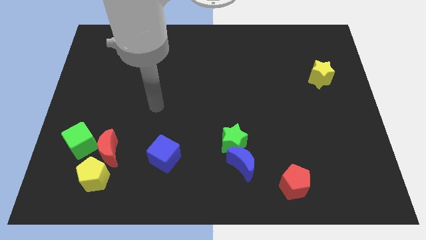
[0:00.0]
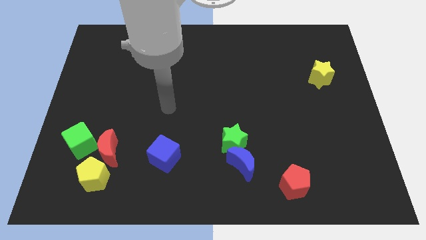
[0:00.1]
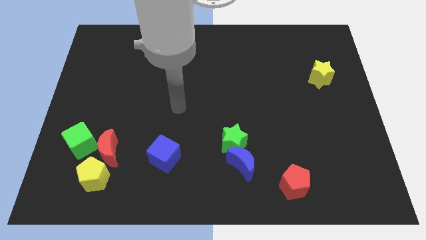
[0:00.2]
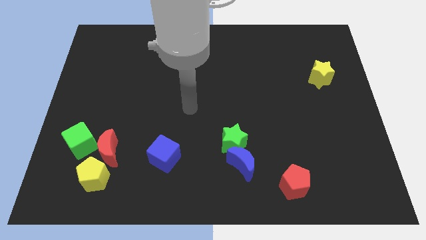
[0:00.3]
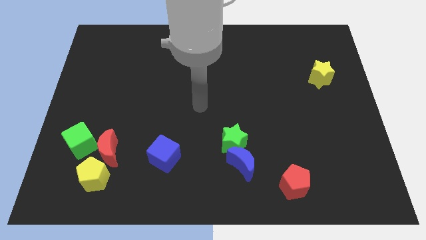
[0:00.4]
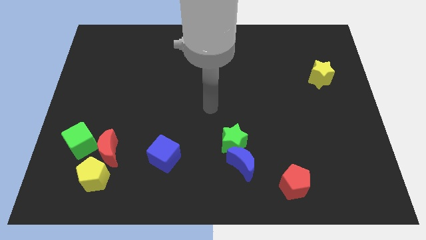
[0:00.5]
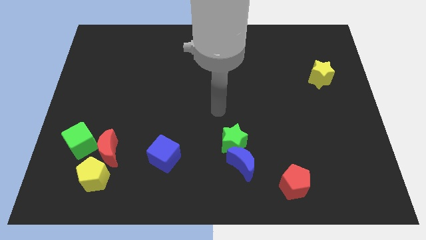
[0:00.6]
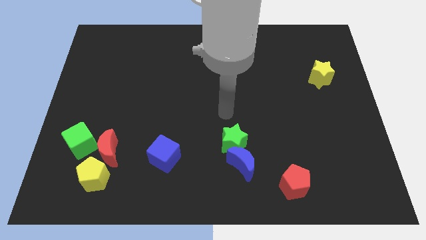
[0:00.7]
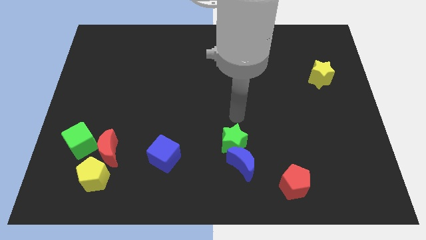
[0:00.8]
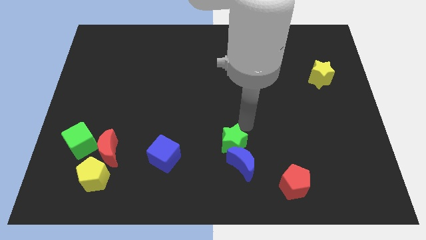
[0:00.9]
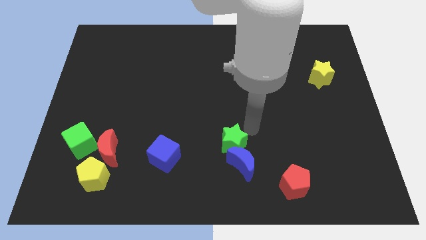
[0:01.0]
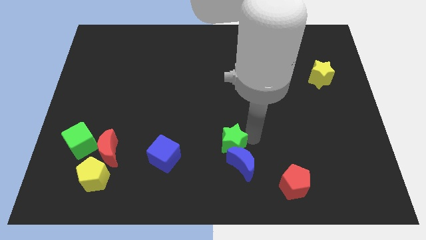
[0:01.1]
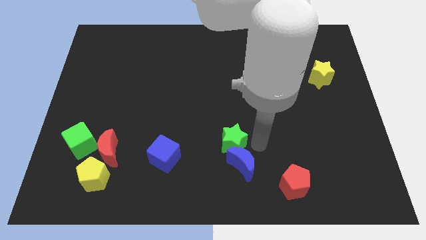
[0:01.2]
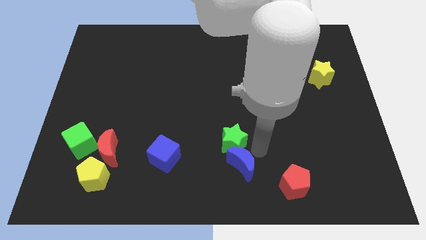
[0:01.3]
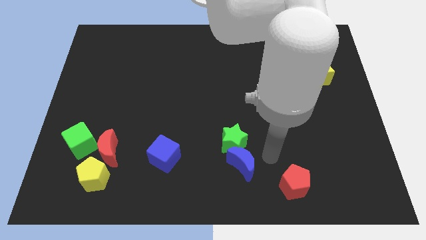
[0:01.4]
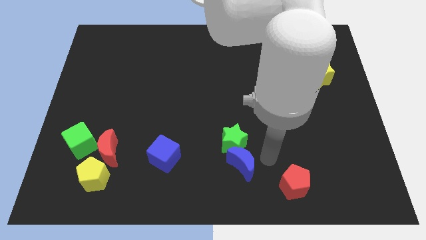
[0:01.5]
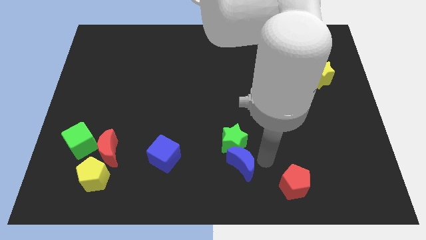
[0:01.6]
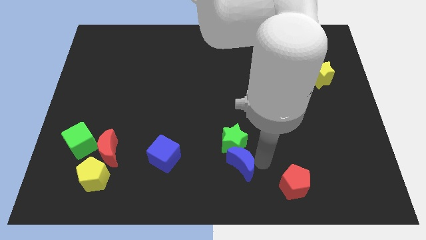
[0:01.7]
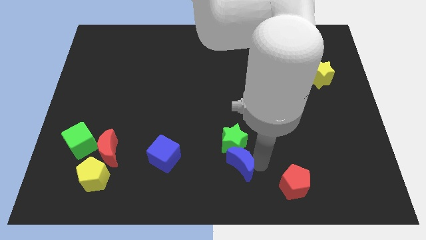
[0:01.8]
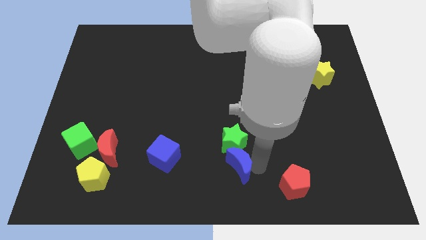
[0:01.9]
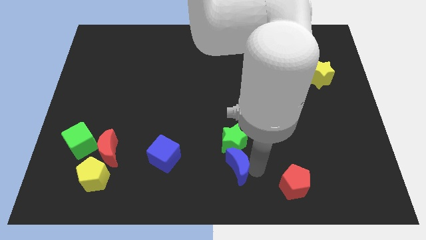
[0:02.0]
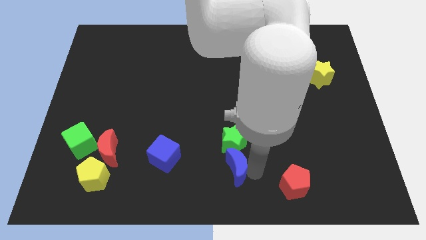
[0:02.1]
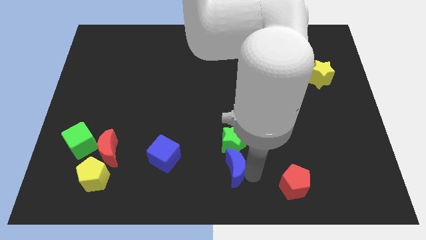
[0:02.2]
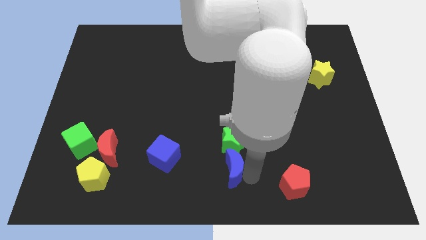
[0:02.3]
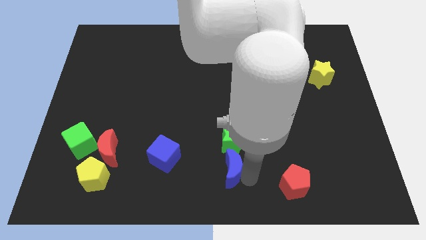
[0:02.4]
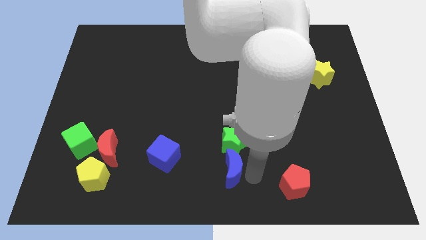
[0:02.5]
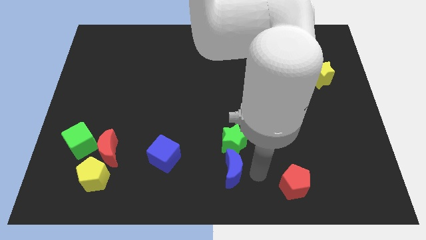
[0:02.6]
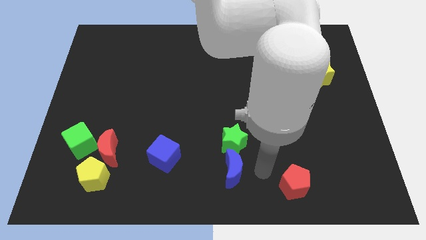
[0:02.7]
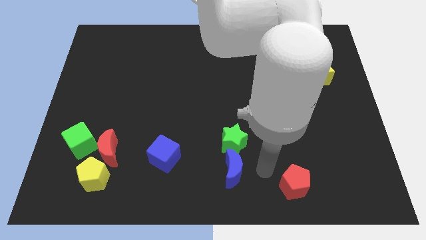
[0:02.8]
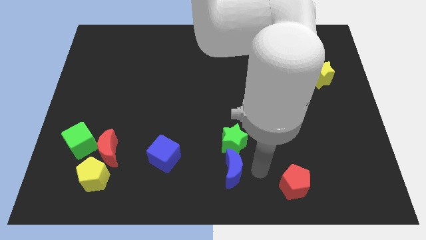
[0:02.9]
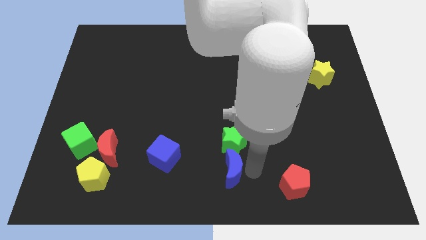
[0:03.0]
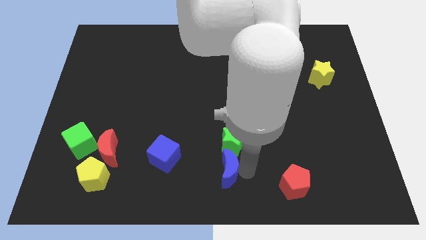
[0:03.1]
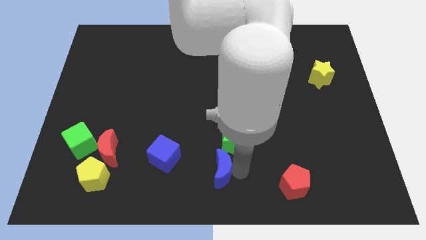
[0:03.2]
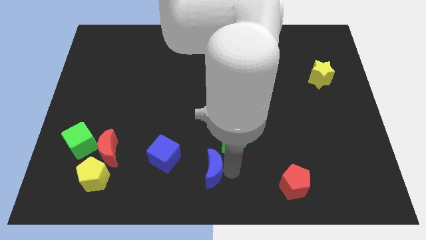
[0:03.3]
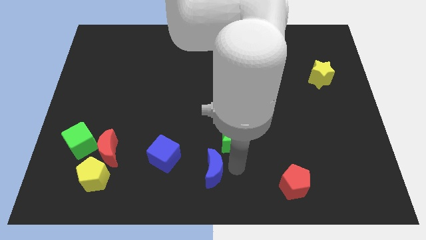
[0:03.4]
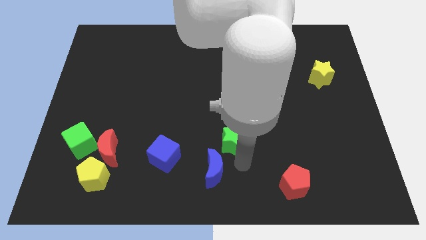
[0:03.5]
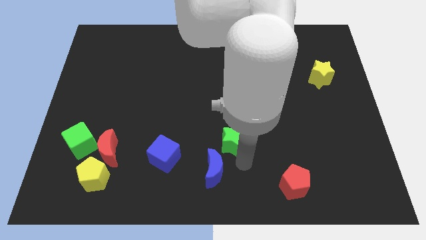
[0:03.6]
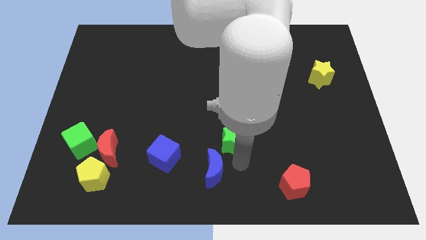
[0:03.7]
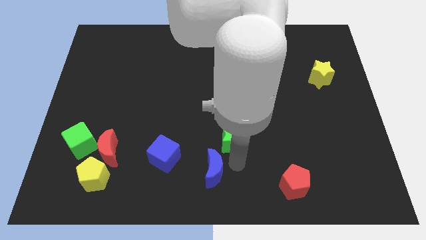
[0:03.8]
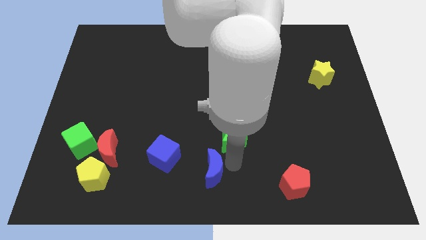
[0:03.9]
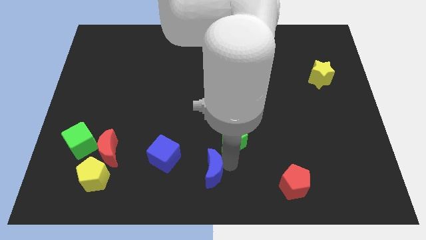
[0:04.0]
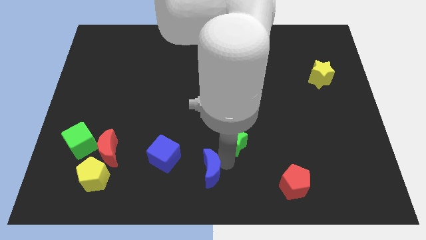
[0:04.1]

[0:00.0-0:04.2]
slide the blue moon to the bottom right side of the blue cube

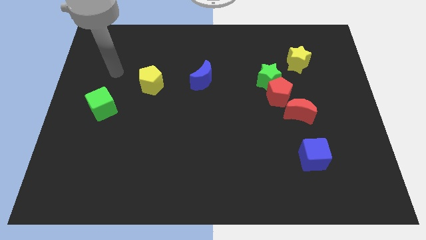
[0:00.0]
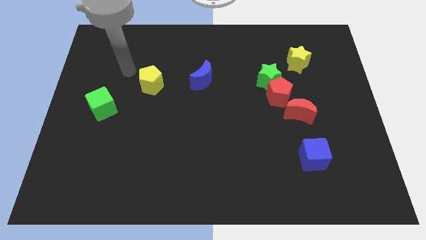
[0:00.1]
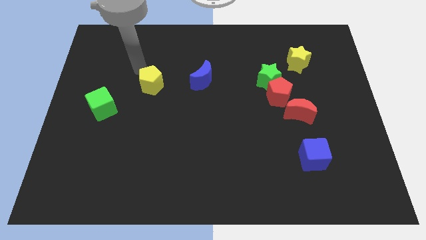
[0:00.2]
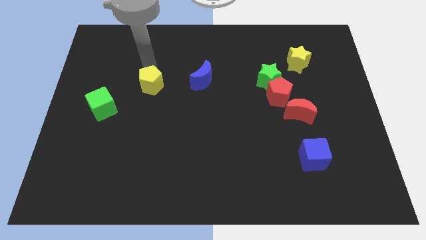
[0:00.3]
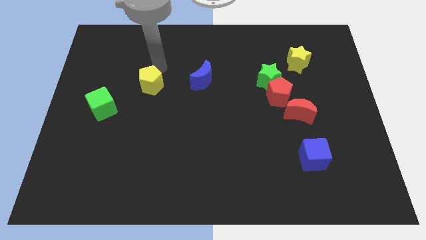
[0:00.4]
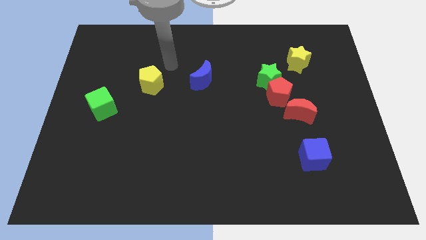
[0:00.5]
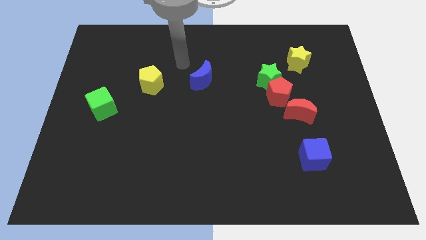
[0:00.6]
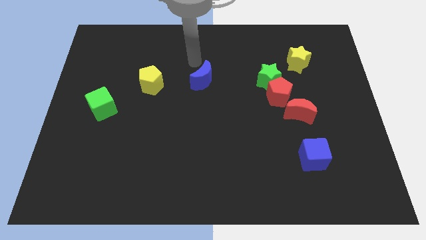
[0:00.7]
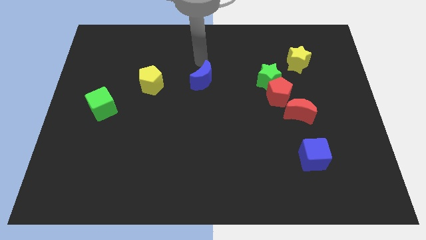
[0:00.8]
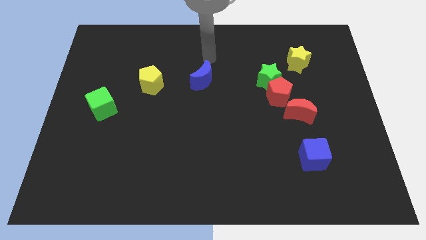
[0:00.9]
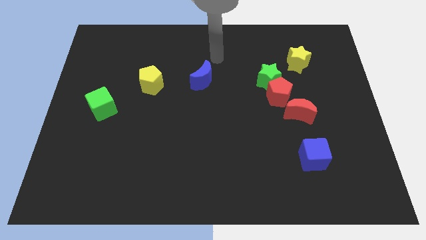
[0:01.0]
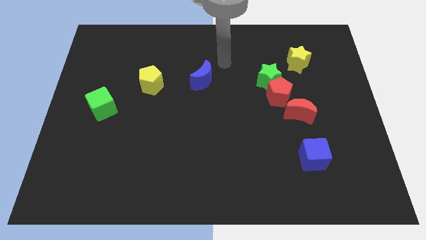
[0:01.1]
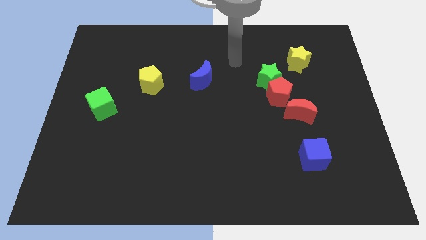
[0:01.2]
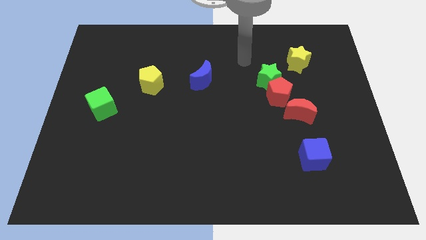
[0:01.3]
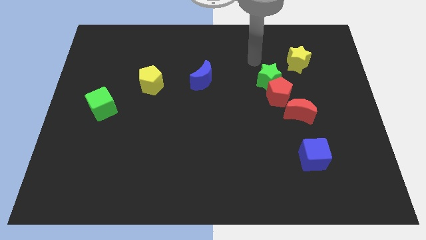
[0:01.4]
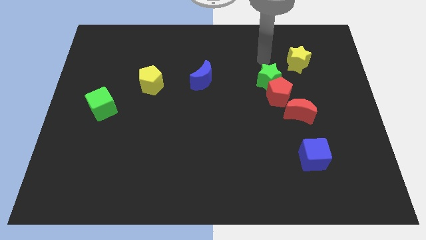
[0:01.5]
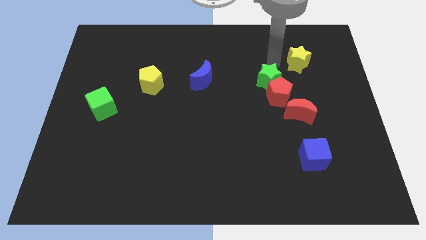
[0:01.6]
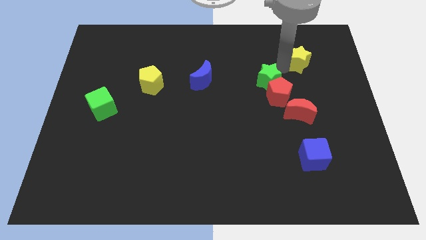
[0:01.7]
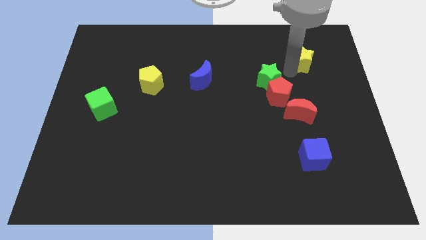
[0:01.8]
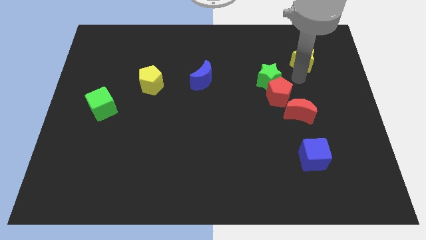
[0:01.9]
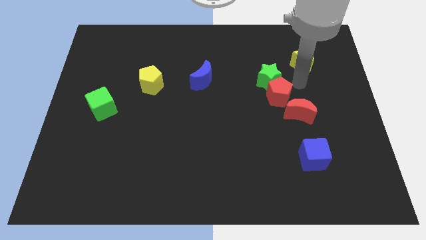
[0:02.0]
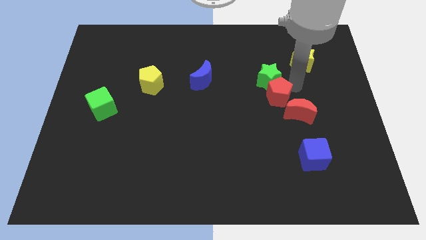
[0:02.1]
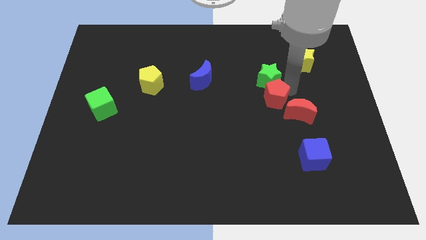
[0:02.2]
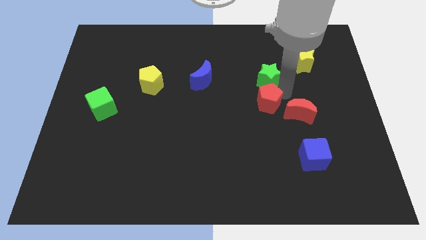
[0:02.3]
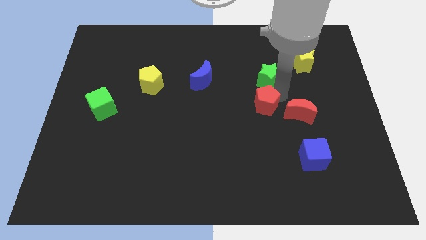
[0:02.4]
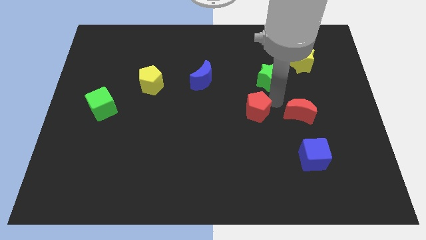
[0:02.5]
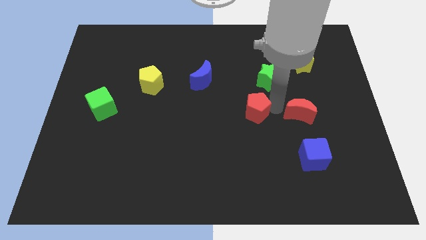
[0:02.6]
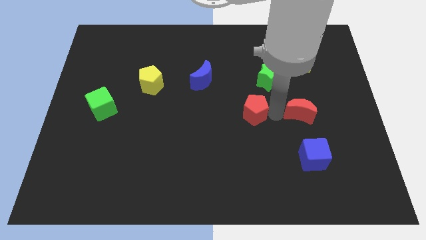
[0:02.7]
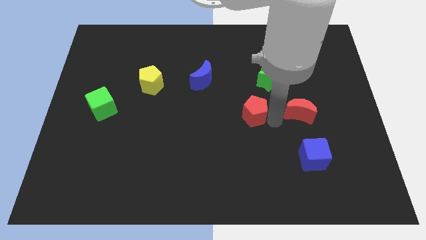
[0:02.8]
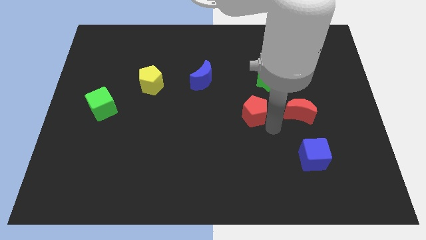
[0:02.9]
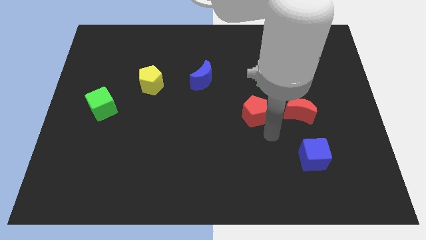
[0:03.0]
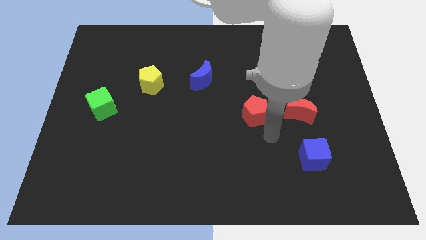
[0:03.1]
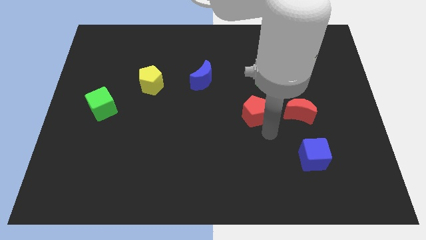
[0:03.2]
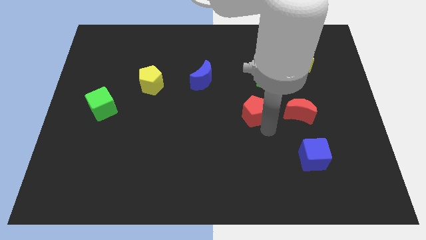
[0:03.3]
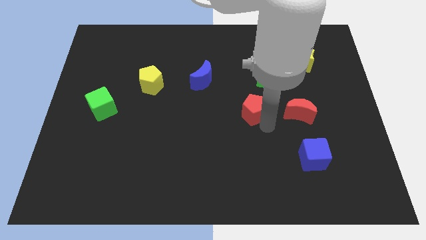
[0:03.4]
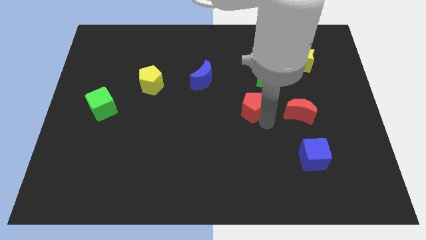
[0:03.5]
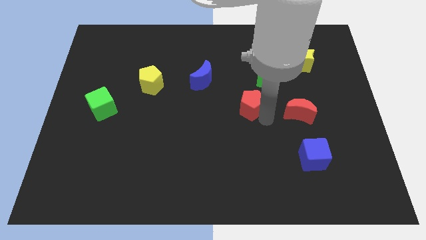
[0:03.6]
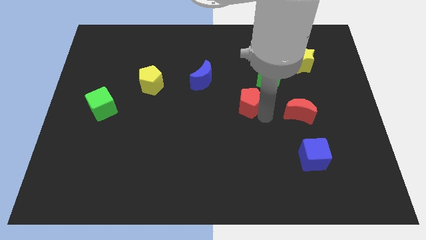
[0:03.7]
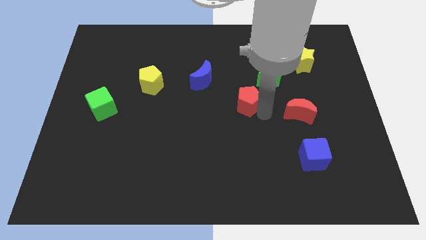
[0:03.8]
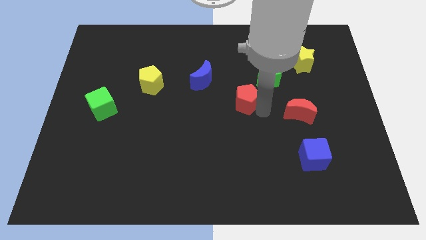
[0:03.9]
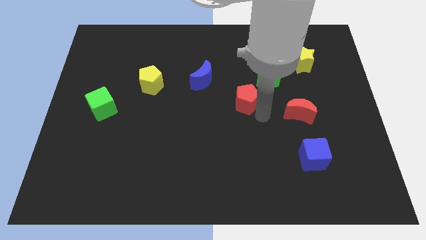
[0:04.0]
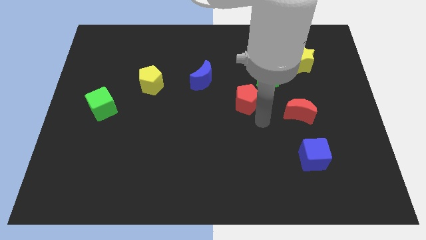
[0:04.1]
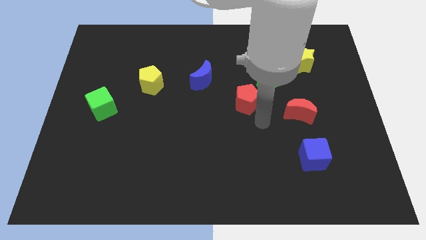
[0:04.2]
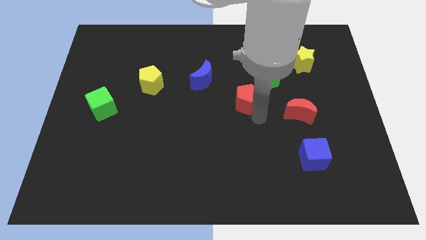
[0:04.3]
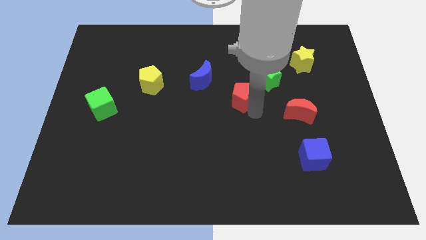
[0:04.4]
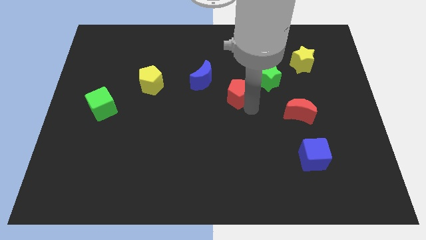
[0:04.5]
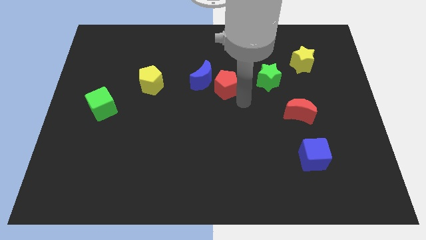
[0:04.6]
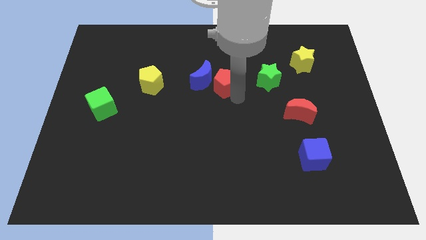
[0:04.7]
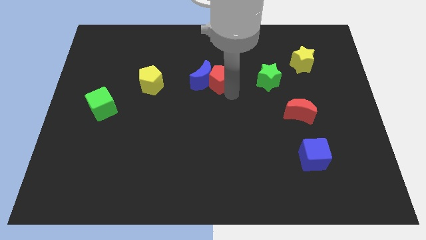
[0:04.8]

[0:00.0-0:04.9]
put the red pentagon diagonally up and to the right of the blue moon
